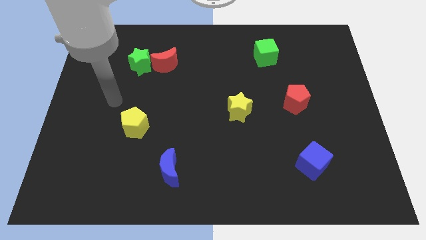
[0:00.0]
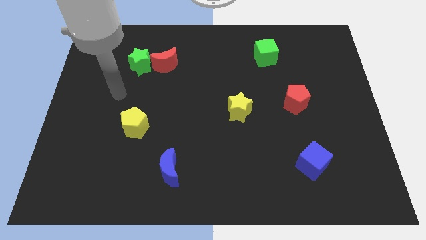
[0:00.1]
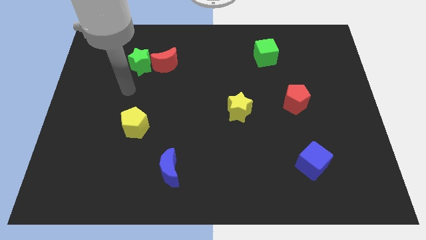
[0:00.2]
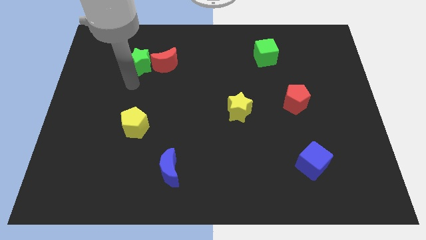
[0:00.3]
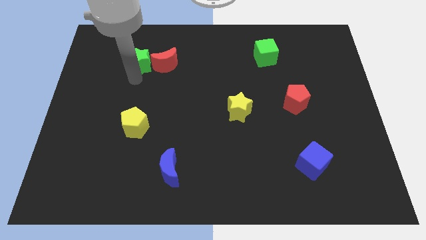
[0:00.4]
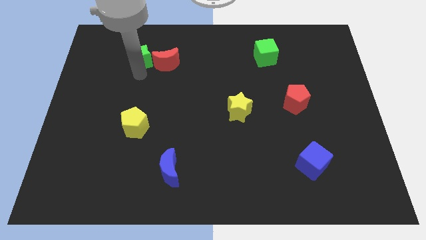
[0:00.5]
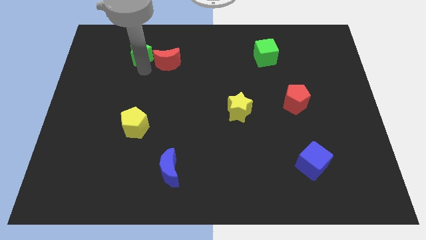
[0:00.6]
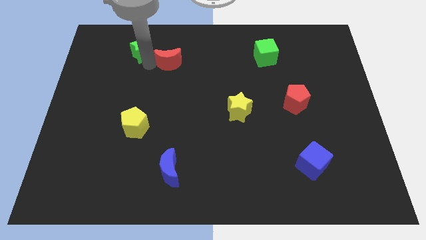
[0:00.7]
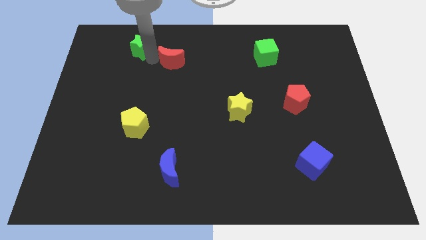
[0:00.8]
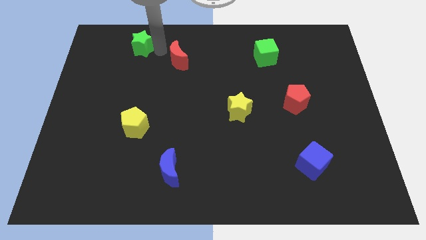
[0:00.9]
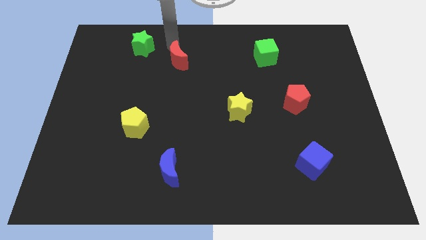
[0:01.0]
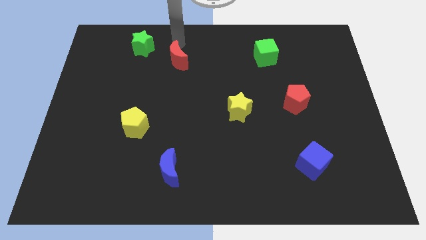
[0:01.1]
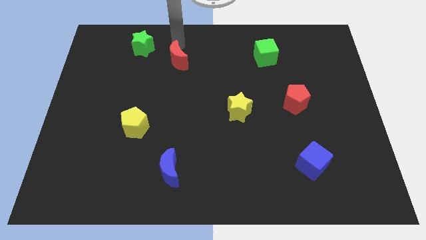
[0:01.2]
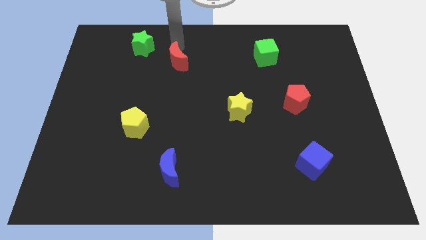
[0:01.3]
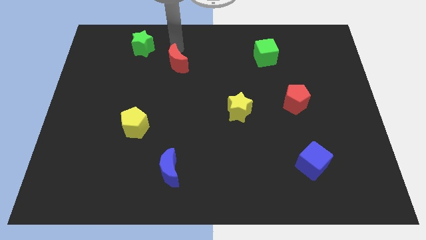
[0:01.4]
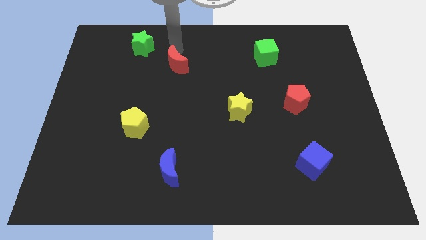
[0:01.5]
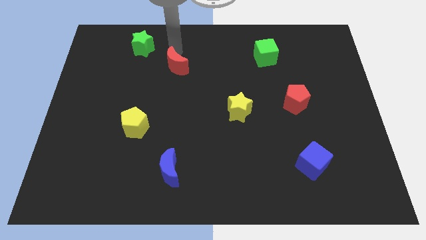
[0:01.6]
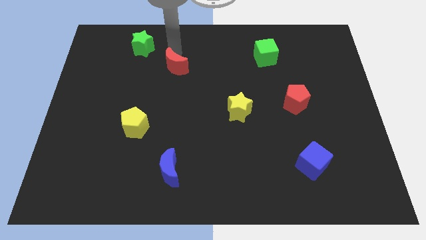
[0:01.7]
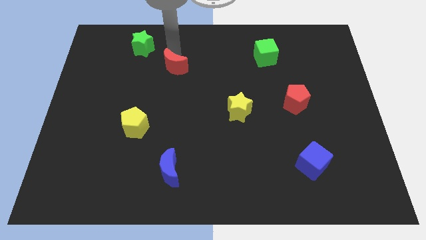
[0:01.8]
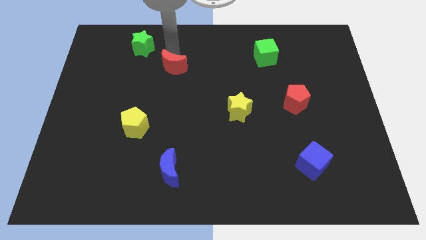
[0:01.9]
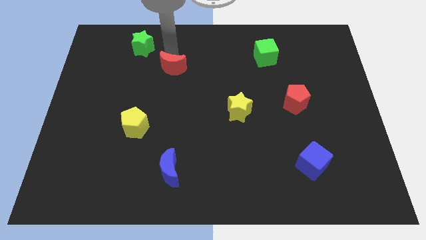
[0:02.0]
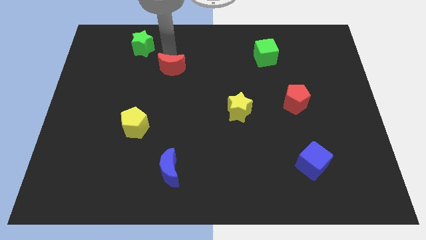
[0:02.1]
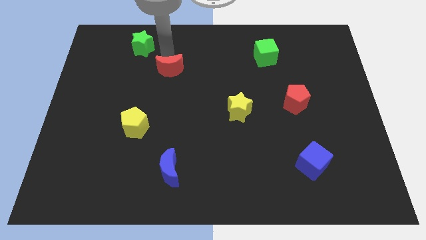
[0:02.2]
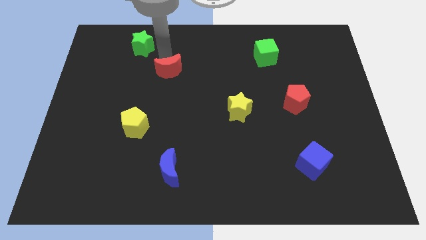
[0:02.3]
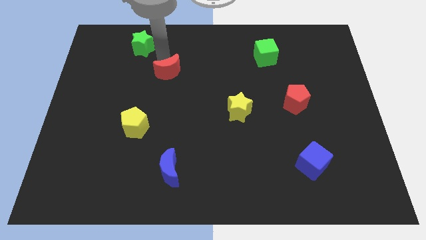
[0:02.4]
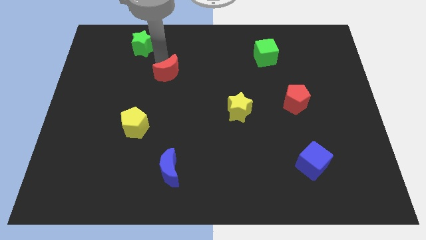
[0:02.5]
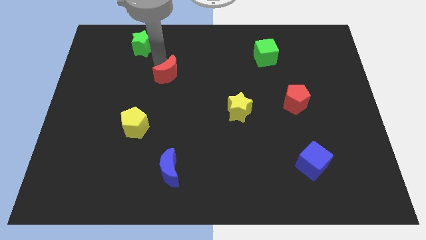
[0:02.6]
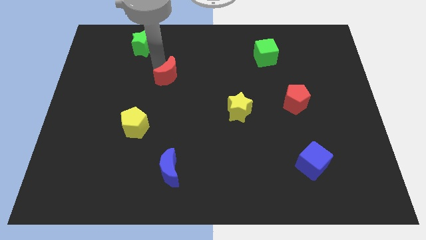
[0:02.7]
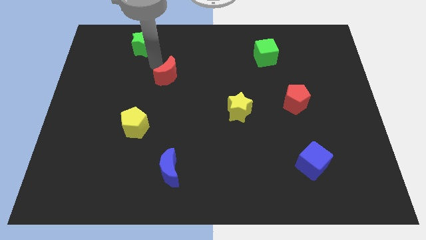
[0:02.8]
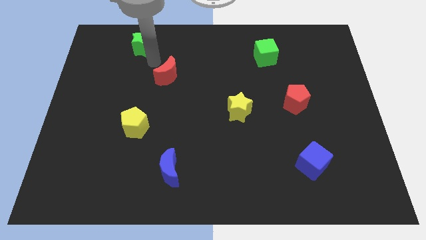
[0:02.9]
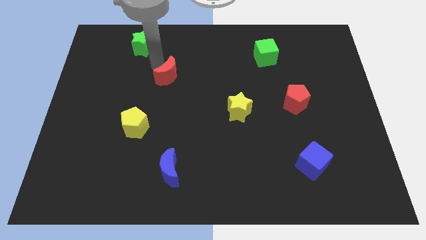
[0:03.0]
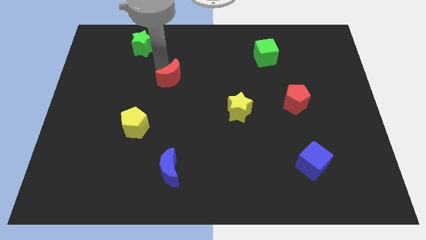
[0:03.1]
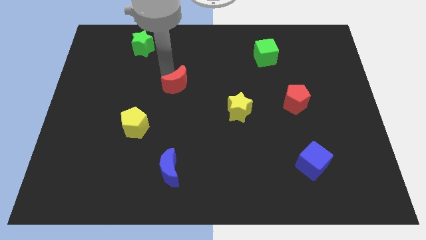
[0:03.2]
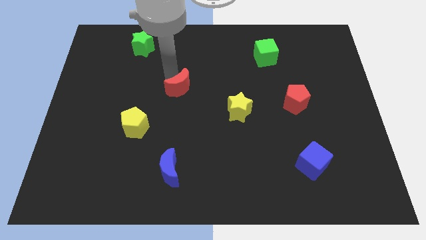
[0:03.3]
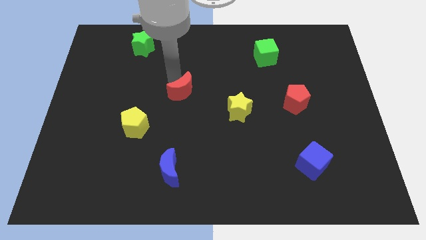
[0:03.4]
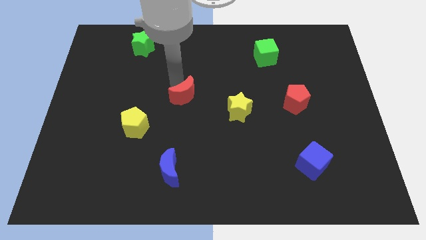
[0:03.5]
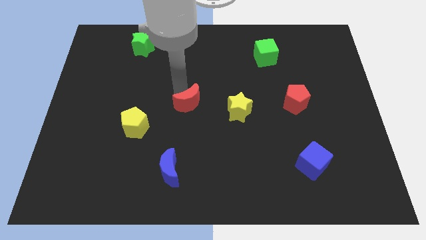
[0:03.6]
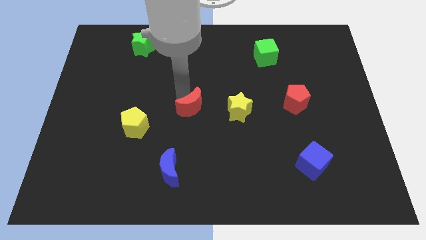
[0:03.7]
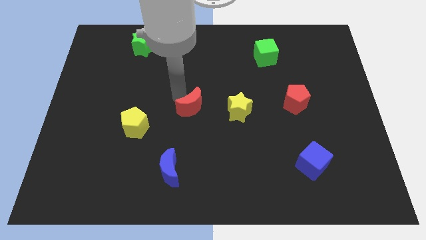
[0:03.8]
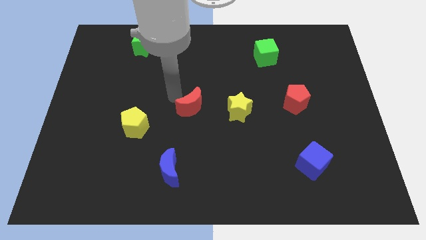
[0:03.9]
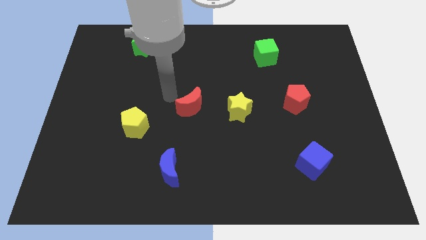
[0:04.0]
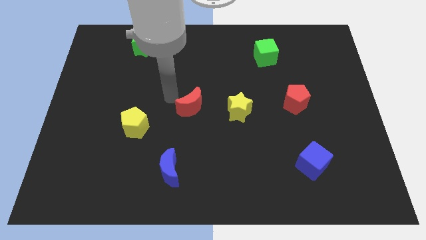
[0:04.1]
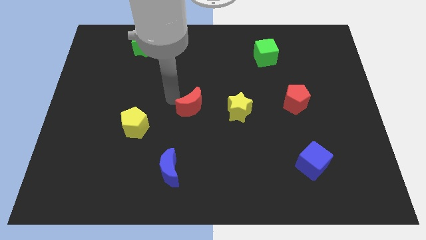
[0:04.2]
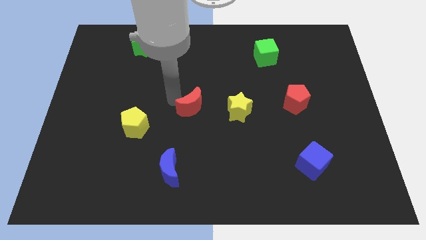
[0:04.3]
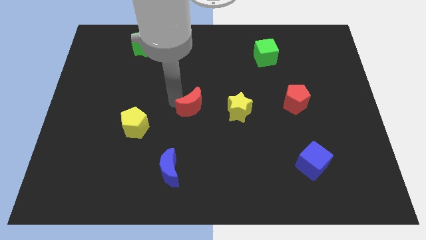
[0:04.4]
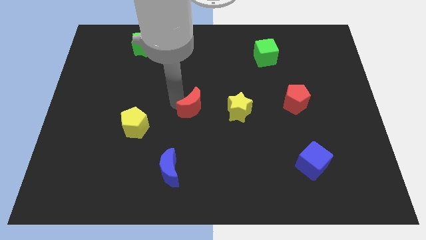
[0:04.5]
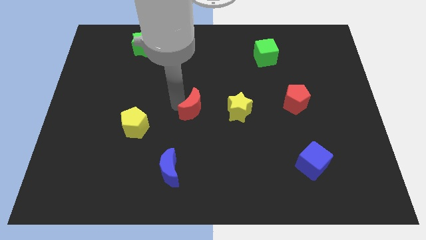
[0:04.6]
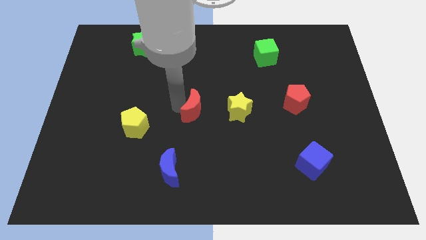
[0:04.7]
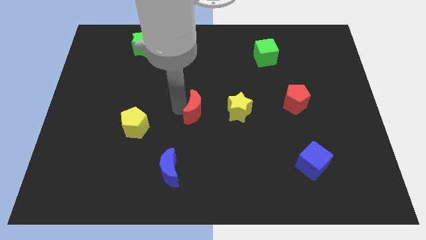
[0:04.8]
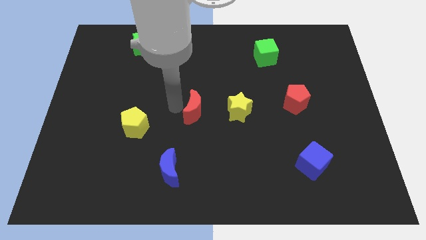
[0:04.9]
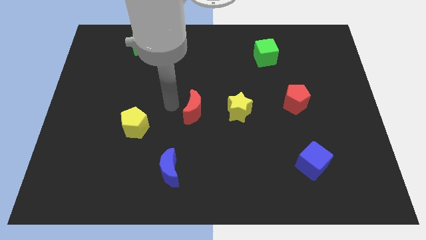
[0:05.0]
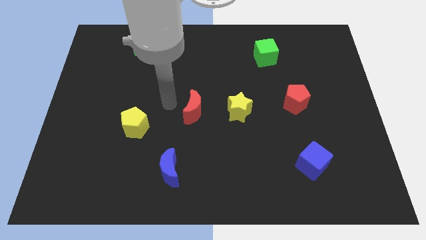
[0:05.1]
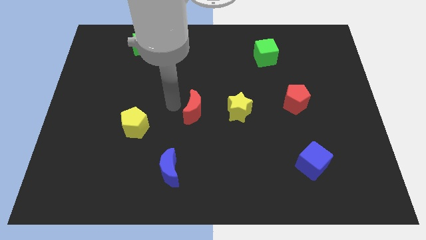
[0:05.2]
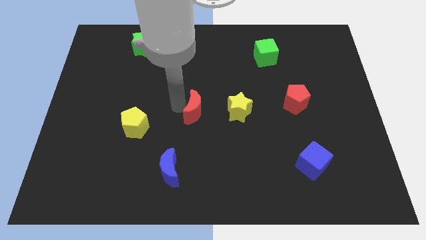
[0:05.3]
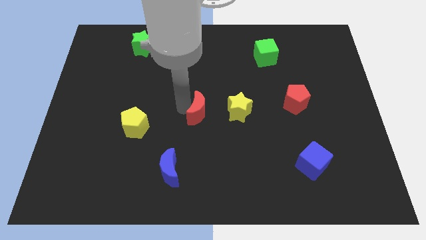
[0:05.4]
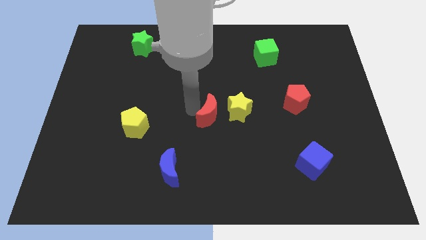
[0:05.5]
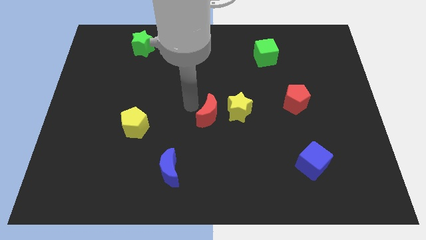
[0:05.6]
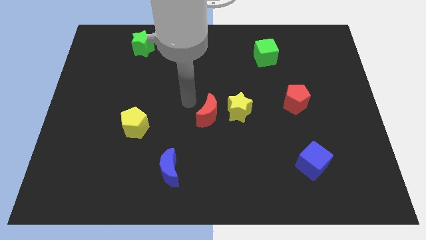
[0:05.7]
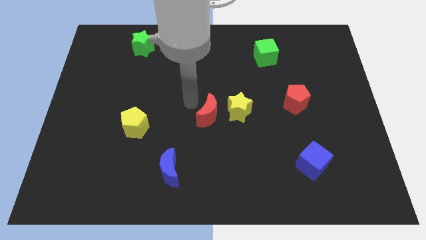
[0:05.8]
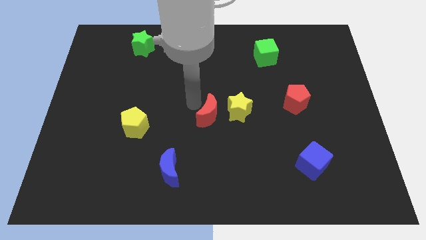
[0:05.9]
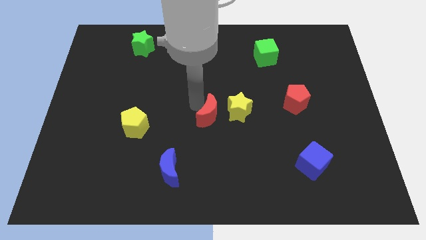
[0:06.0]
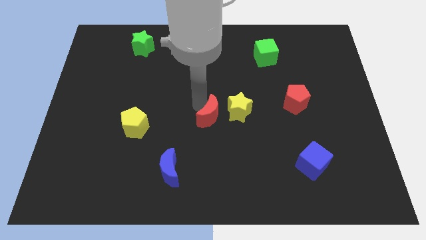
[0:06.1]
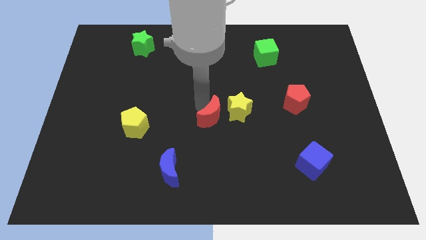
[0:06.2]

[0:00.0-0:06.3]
push the red moon downwards and right

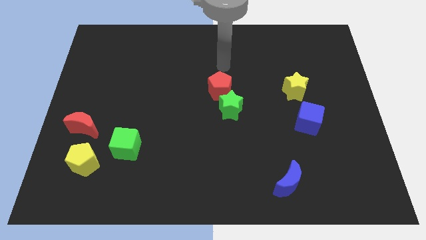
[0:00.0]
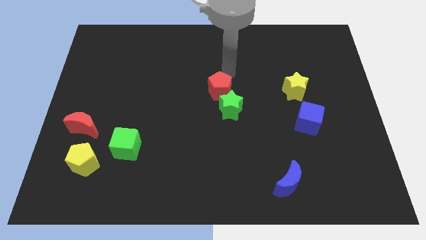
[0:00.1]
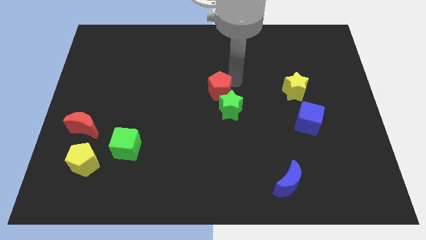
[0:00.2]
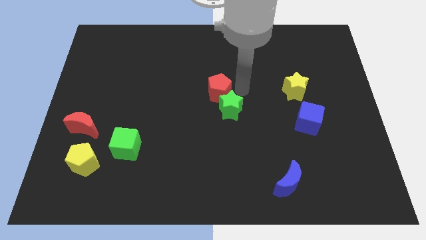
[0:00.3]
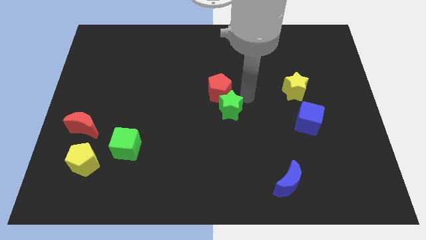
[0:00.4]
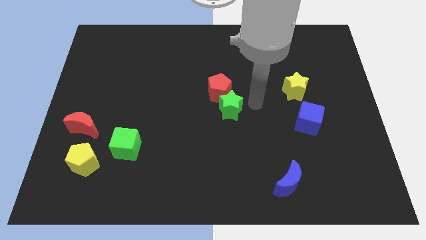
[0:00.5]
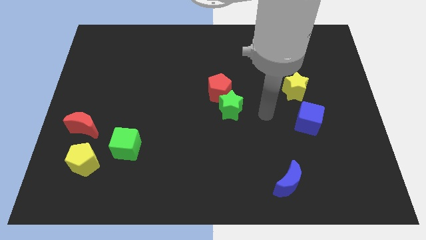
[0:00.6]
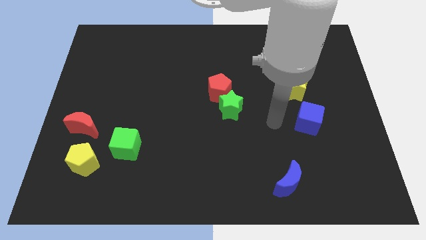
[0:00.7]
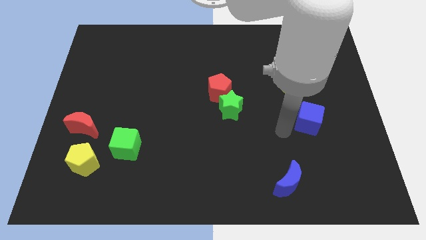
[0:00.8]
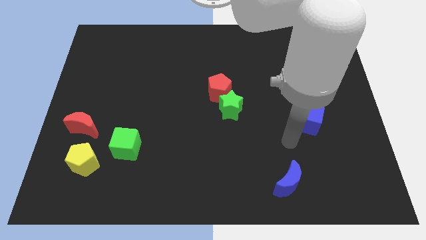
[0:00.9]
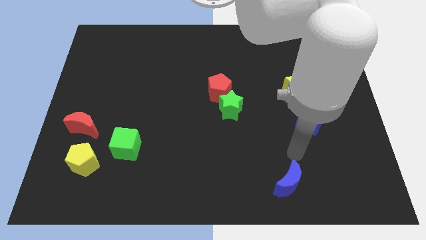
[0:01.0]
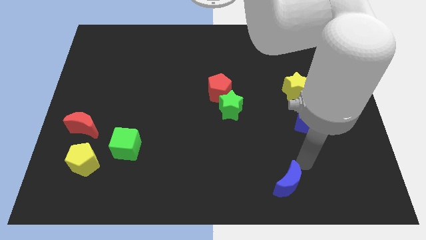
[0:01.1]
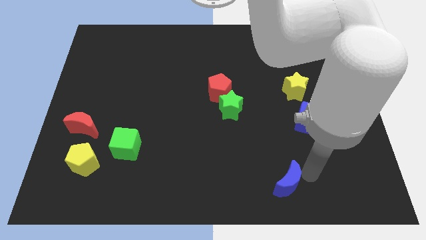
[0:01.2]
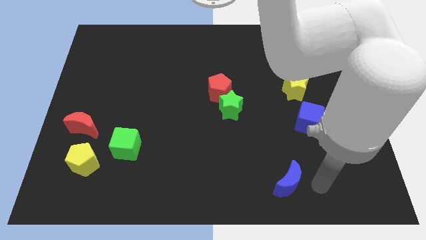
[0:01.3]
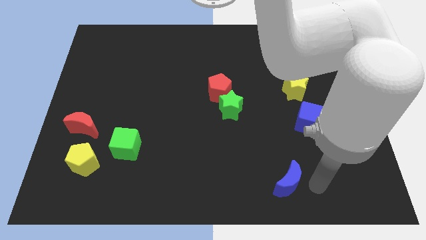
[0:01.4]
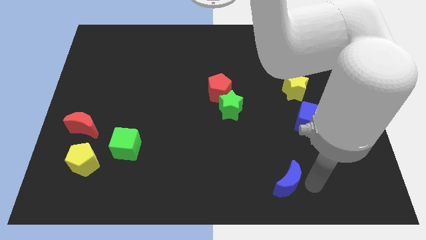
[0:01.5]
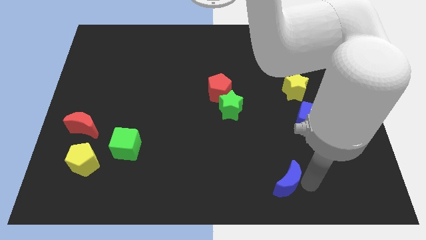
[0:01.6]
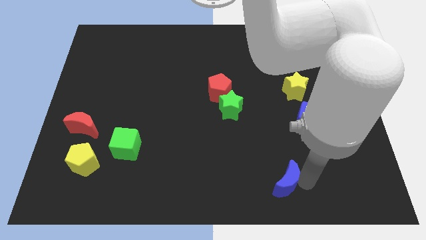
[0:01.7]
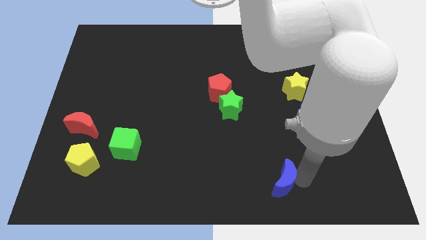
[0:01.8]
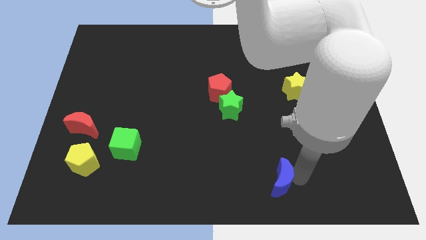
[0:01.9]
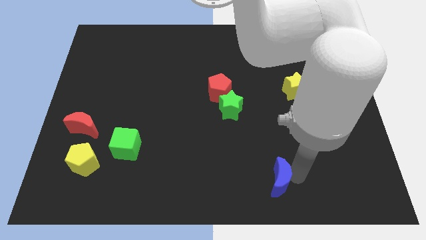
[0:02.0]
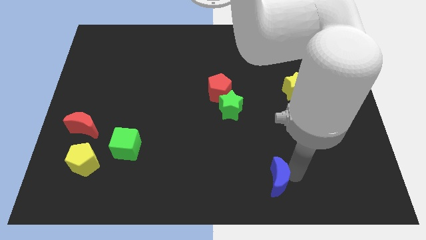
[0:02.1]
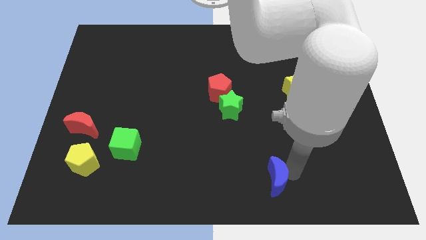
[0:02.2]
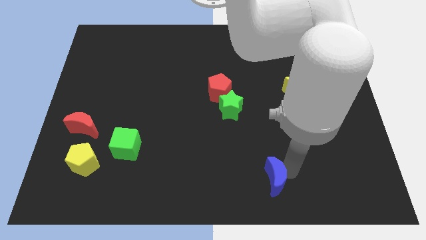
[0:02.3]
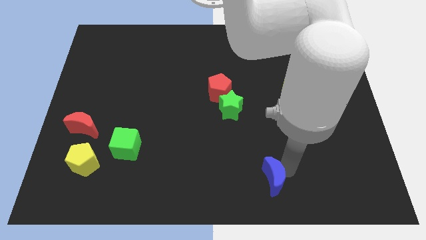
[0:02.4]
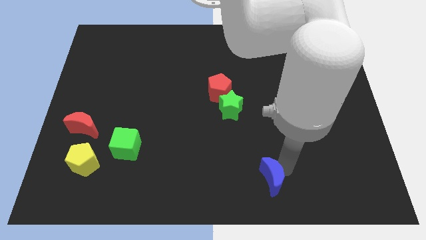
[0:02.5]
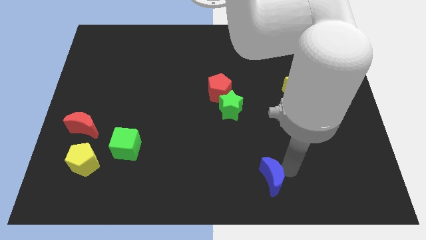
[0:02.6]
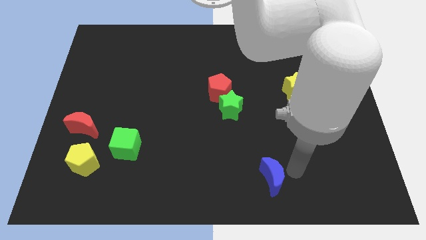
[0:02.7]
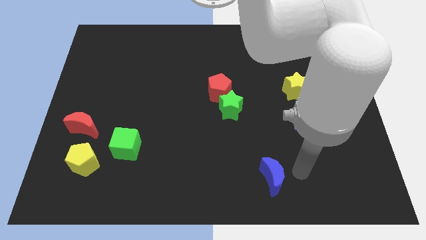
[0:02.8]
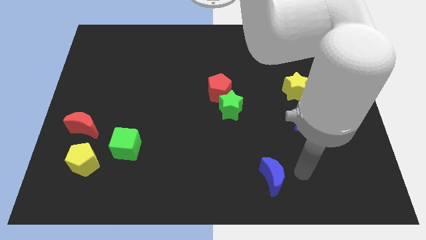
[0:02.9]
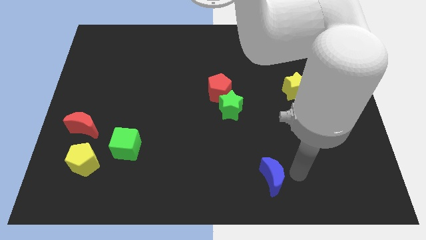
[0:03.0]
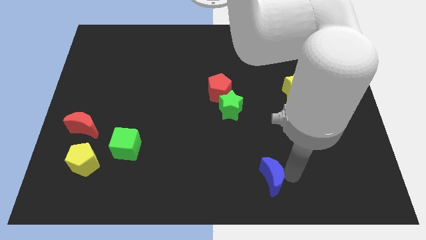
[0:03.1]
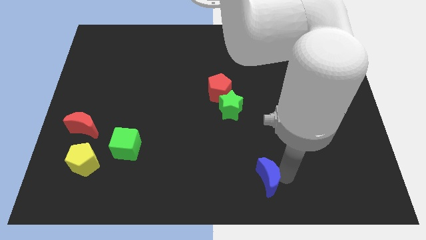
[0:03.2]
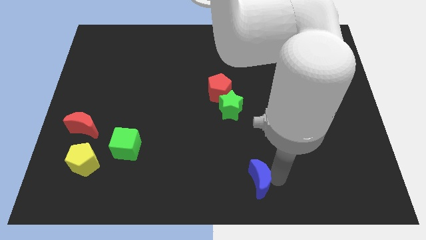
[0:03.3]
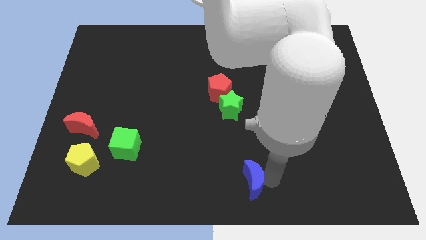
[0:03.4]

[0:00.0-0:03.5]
slightly slide the blue moon left
